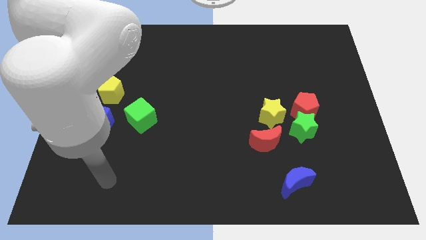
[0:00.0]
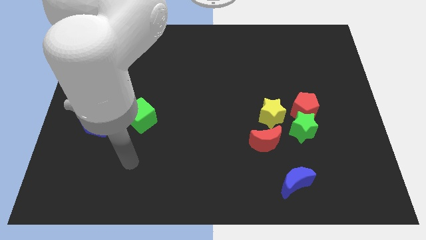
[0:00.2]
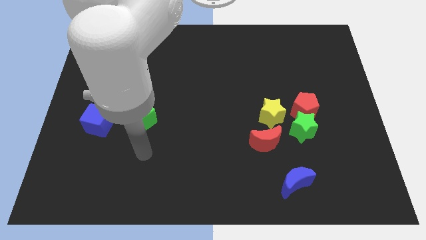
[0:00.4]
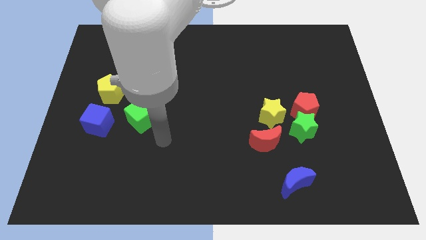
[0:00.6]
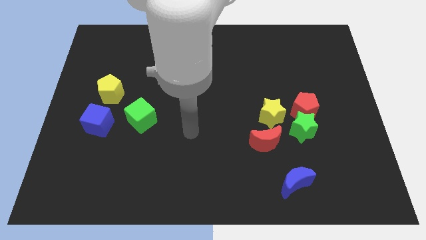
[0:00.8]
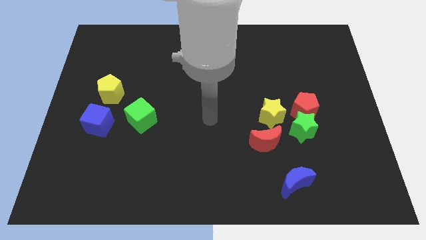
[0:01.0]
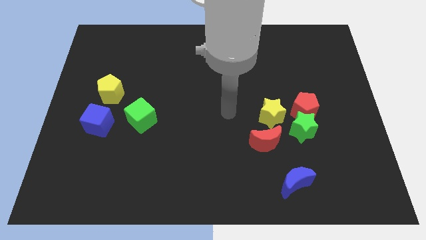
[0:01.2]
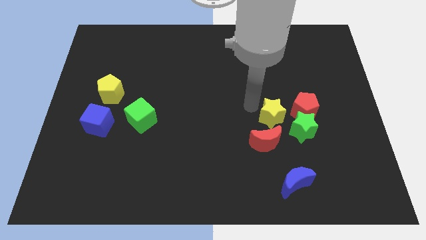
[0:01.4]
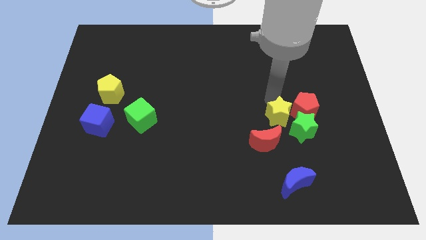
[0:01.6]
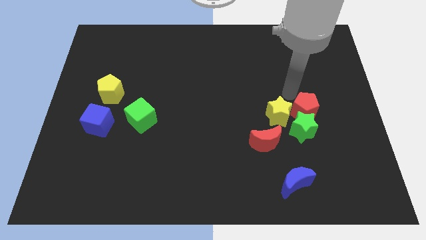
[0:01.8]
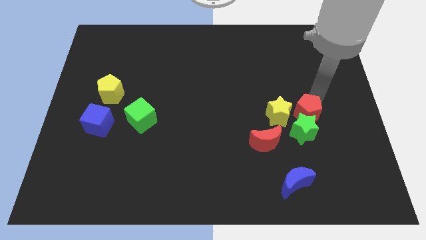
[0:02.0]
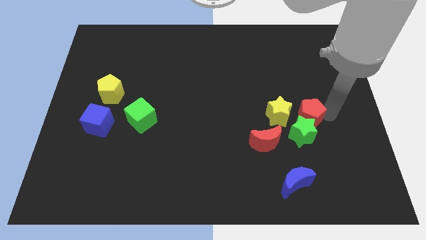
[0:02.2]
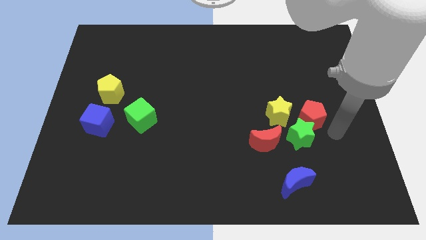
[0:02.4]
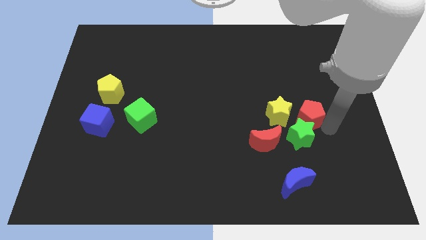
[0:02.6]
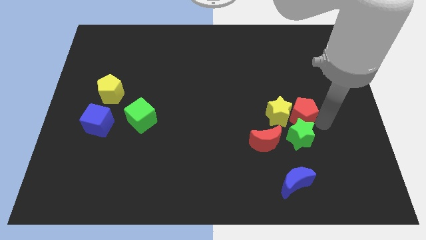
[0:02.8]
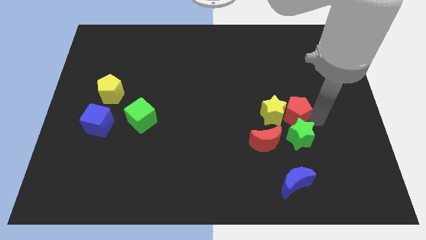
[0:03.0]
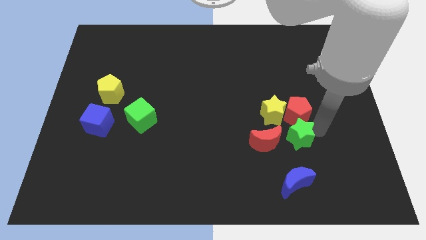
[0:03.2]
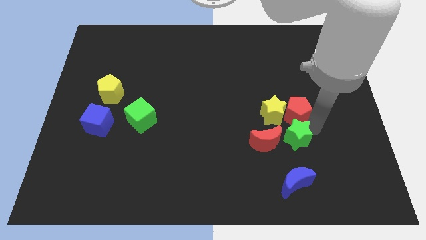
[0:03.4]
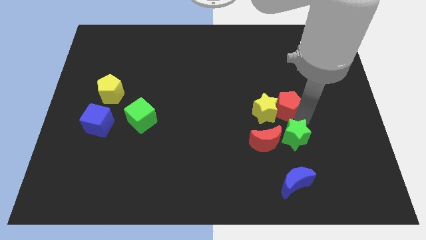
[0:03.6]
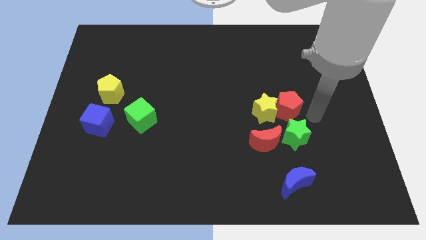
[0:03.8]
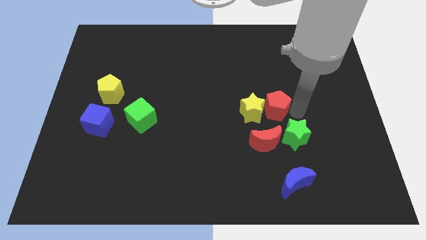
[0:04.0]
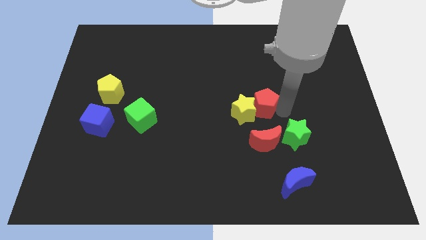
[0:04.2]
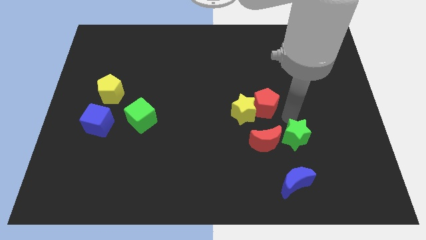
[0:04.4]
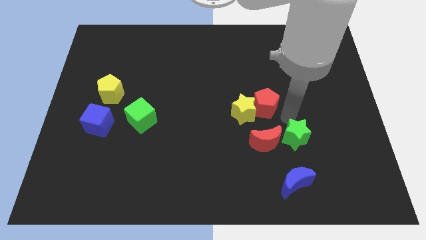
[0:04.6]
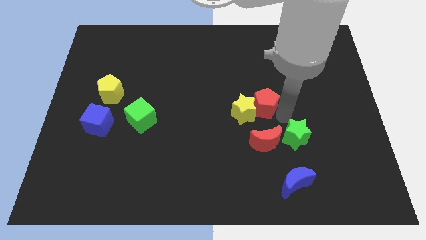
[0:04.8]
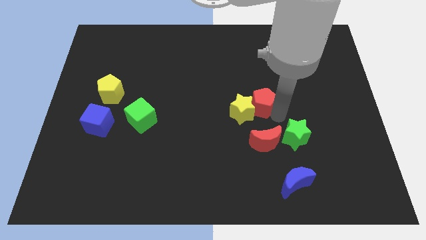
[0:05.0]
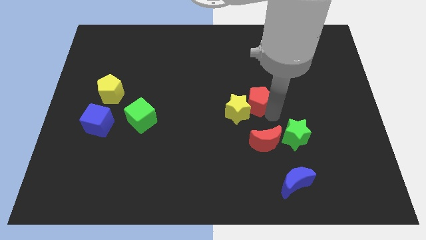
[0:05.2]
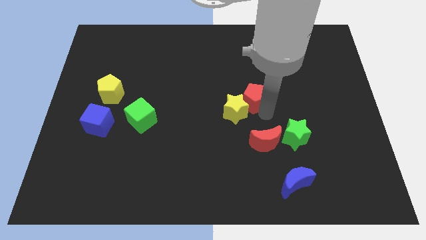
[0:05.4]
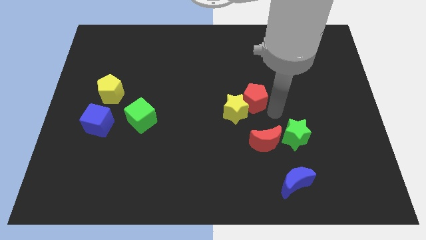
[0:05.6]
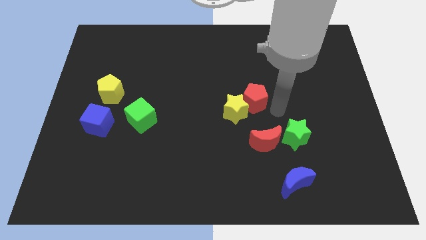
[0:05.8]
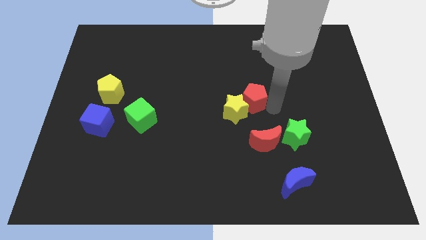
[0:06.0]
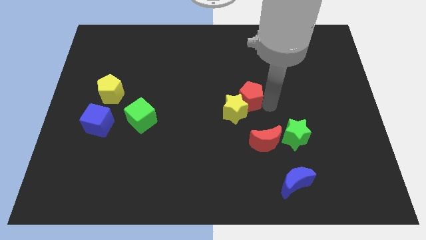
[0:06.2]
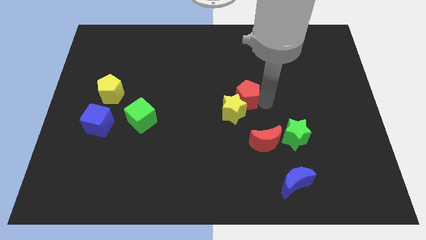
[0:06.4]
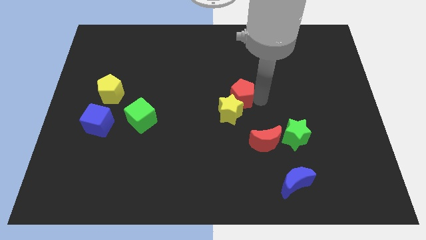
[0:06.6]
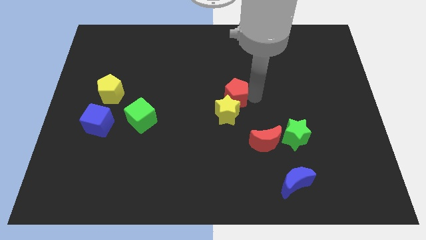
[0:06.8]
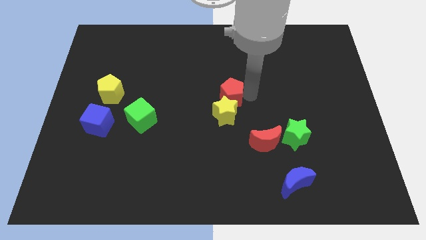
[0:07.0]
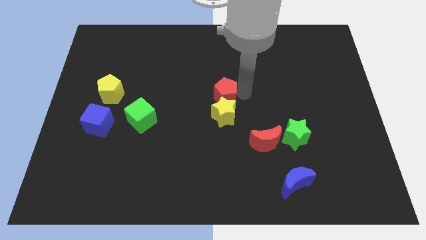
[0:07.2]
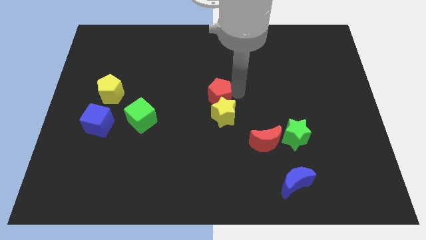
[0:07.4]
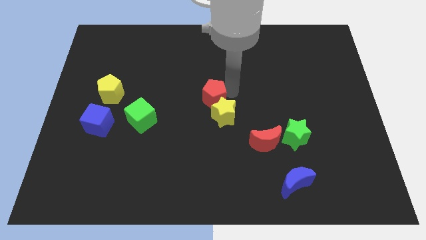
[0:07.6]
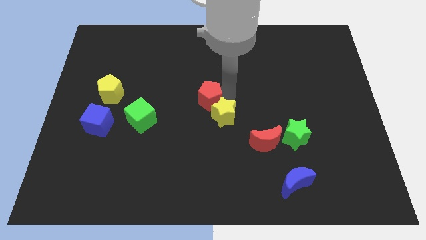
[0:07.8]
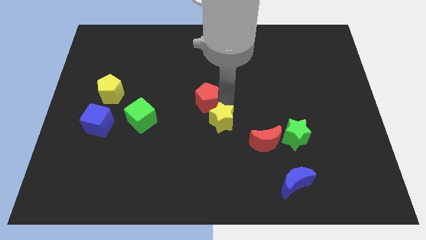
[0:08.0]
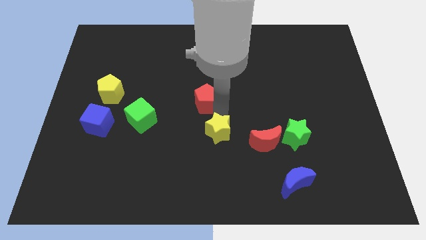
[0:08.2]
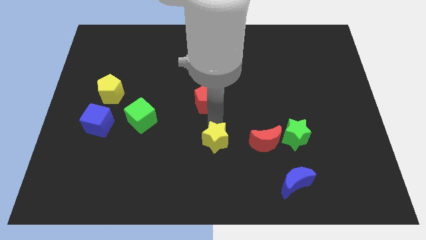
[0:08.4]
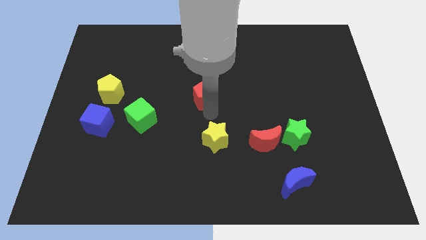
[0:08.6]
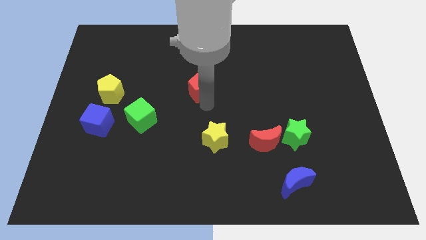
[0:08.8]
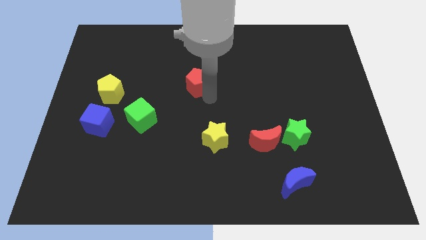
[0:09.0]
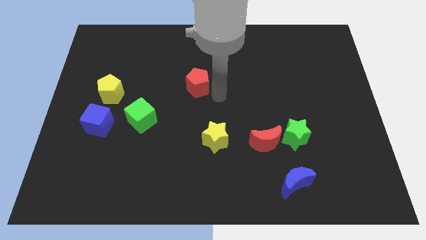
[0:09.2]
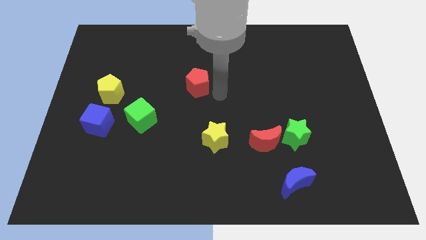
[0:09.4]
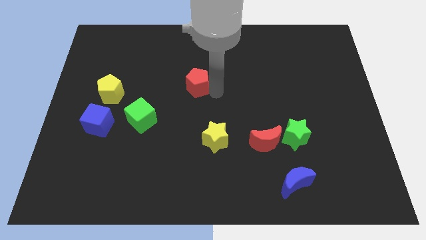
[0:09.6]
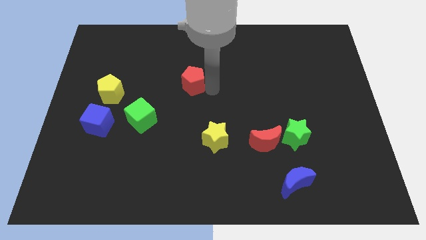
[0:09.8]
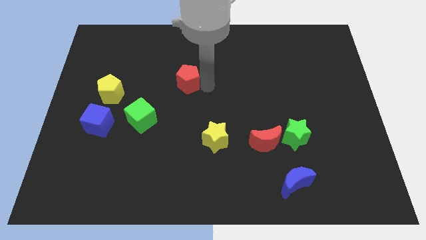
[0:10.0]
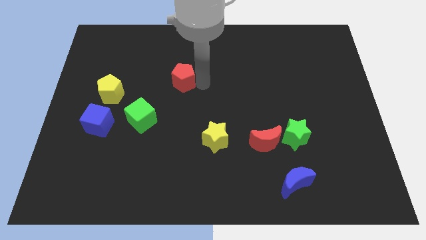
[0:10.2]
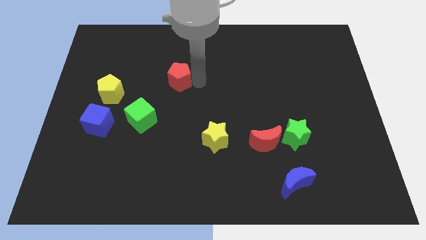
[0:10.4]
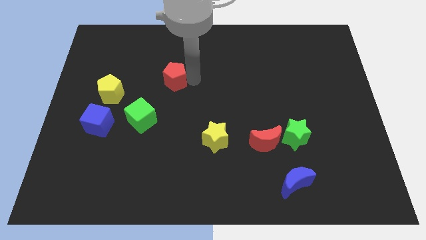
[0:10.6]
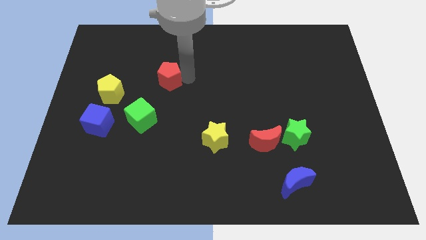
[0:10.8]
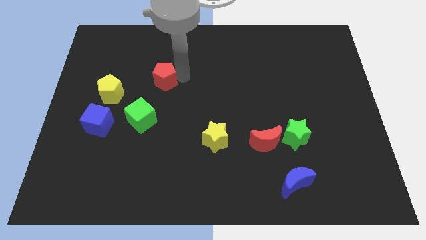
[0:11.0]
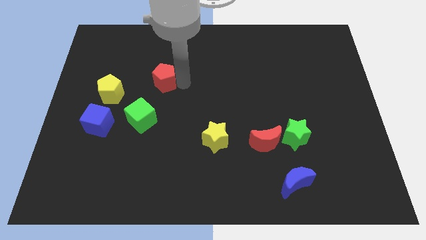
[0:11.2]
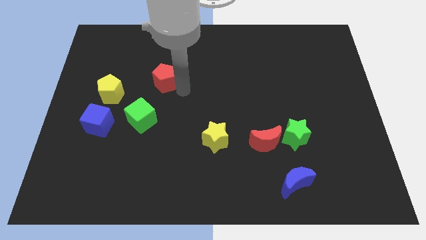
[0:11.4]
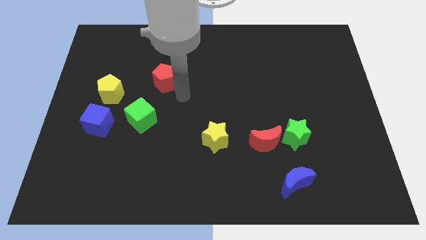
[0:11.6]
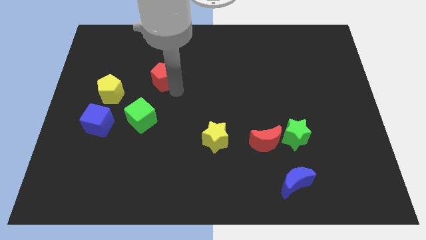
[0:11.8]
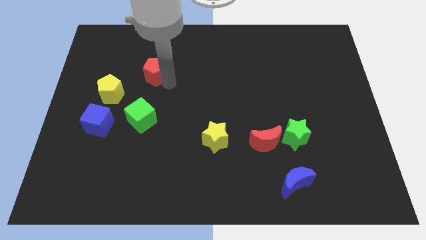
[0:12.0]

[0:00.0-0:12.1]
put the red pentagon diagonally up and to the right of the yellow pentagon
